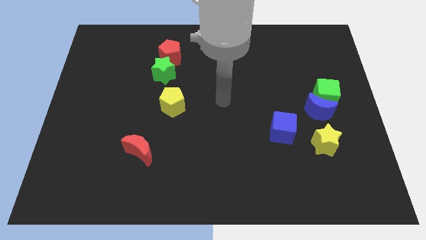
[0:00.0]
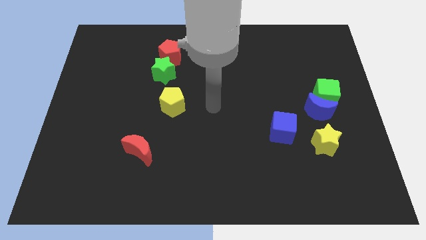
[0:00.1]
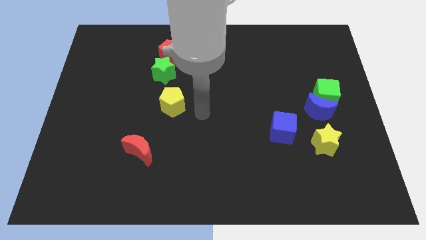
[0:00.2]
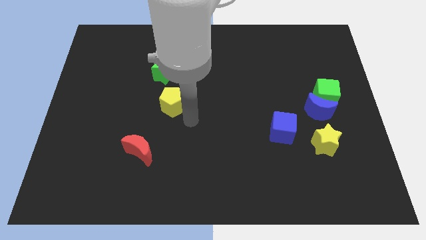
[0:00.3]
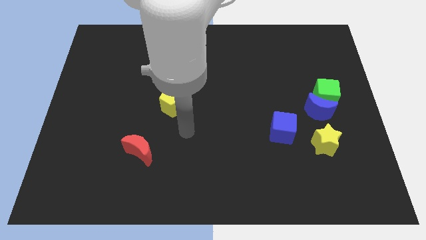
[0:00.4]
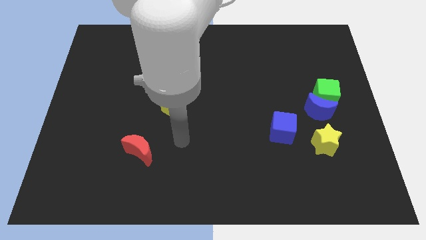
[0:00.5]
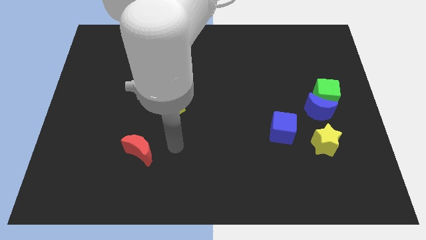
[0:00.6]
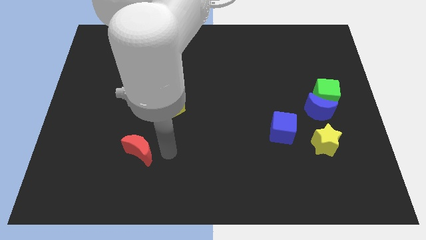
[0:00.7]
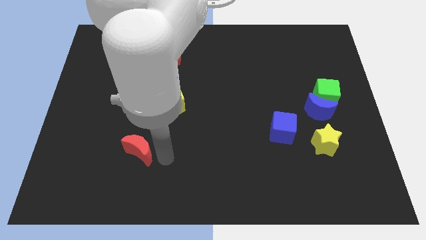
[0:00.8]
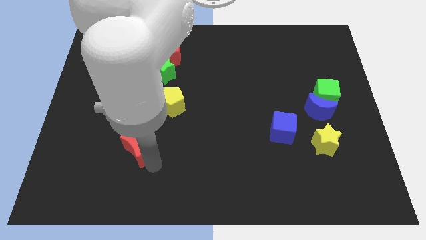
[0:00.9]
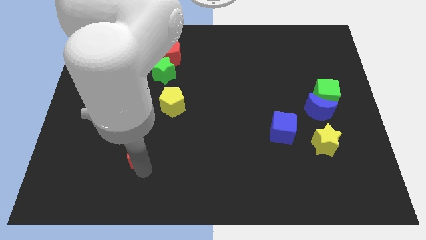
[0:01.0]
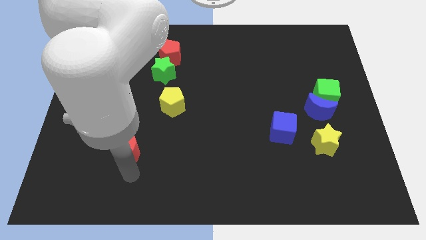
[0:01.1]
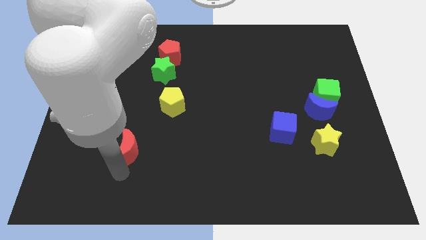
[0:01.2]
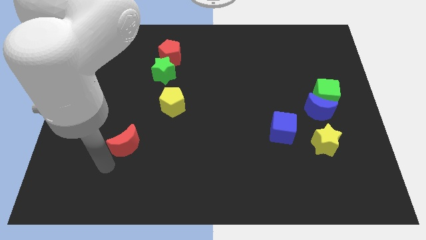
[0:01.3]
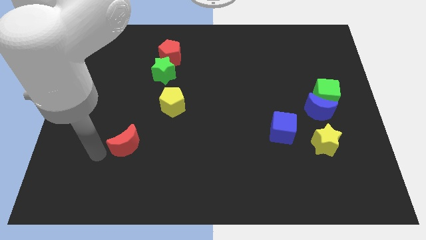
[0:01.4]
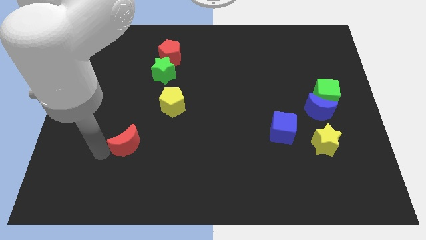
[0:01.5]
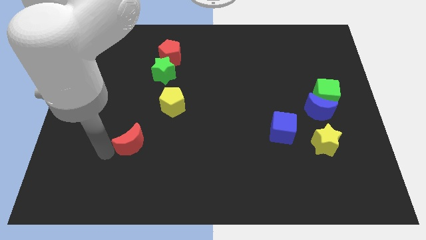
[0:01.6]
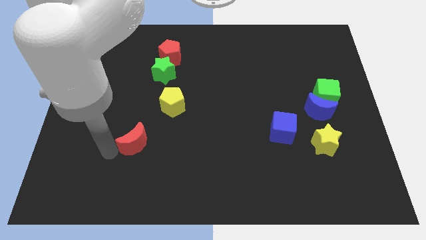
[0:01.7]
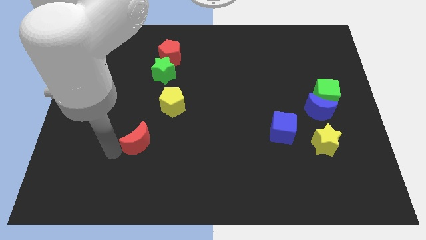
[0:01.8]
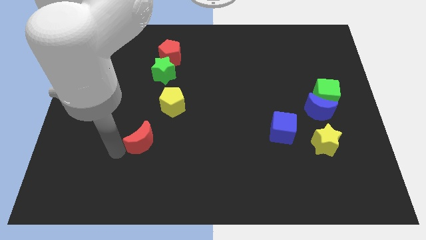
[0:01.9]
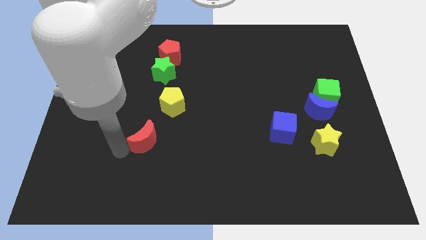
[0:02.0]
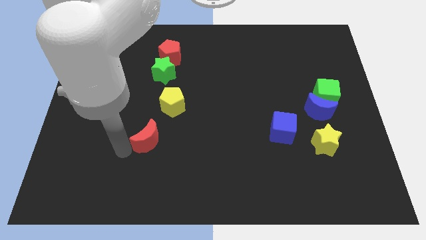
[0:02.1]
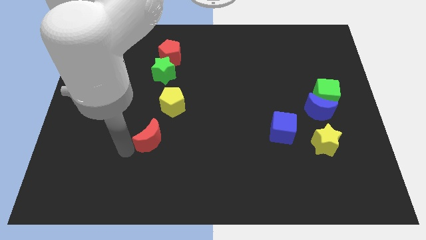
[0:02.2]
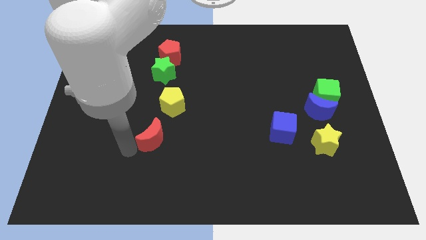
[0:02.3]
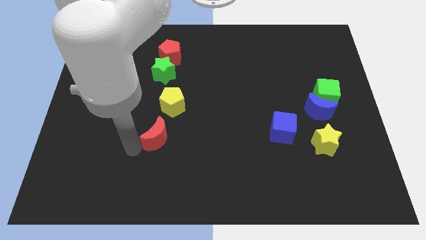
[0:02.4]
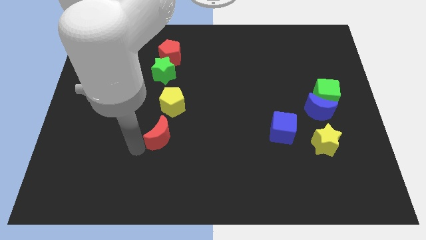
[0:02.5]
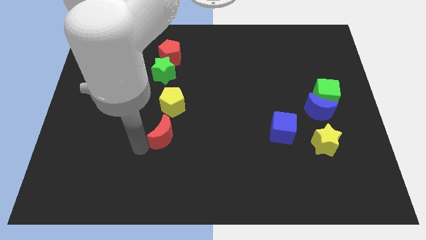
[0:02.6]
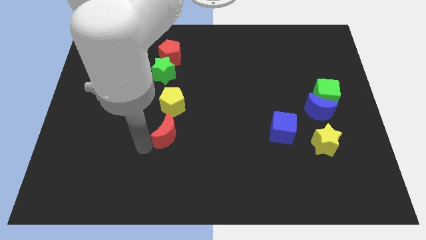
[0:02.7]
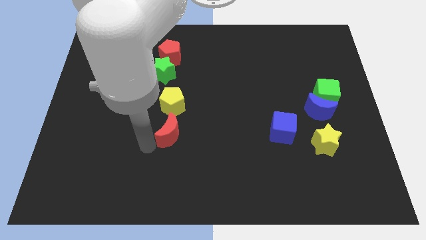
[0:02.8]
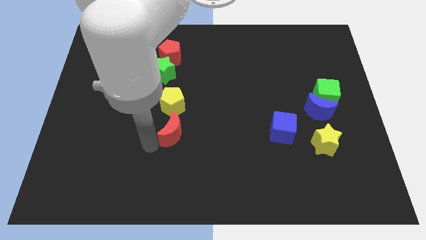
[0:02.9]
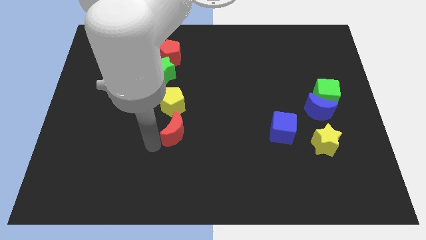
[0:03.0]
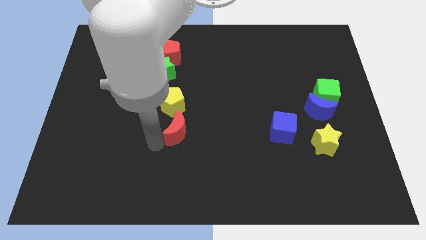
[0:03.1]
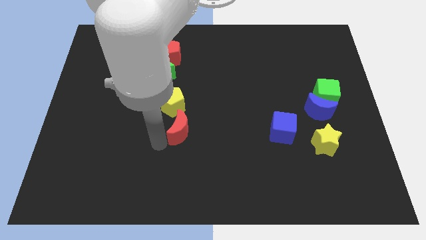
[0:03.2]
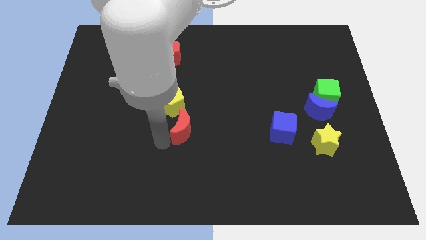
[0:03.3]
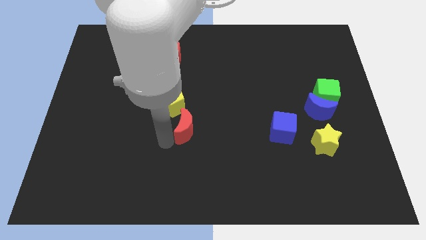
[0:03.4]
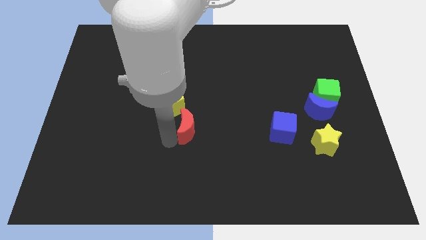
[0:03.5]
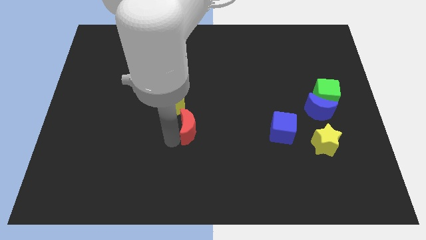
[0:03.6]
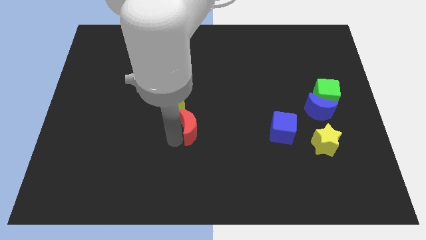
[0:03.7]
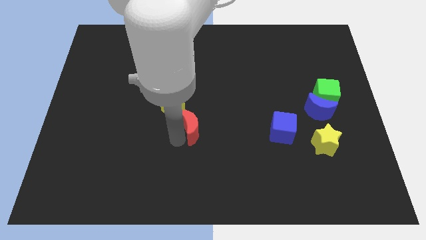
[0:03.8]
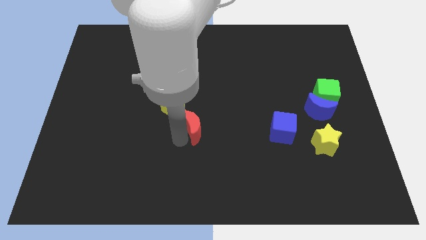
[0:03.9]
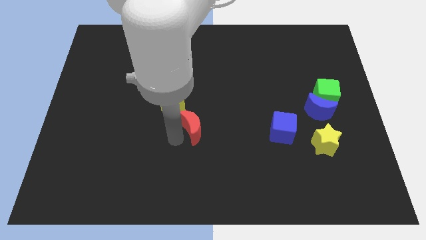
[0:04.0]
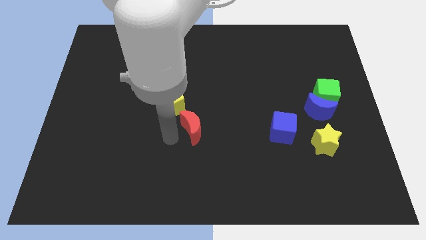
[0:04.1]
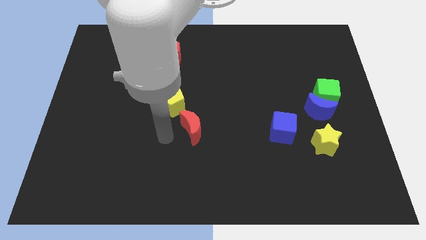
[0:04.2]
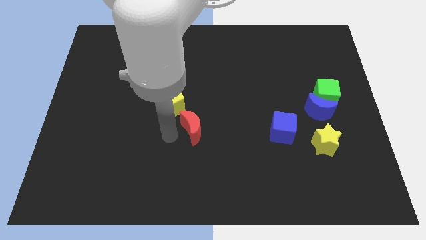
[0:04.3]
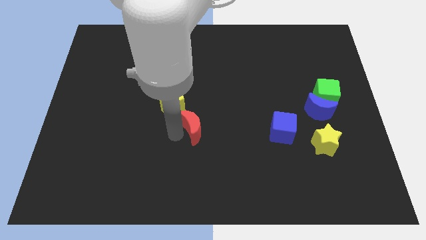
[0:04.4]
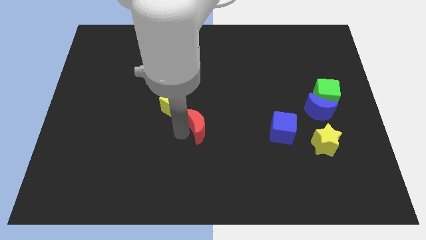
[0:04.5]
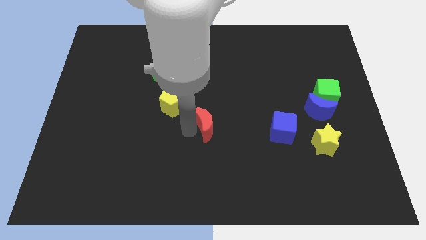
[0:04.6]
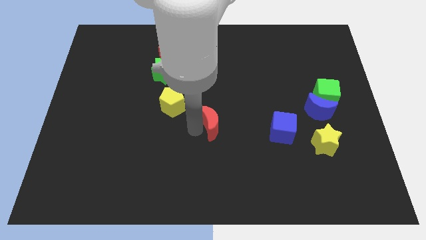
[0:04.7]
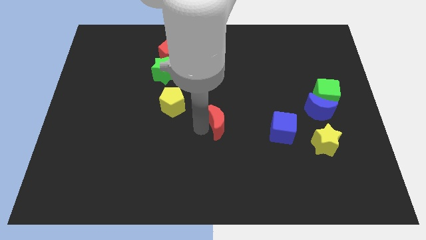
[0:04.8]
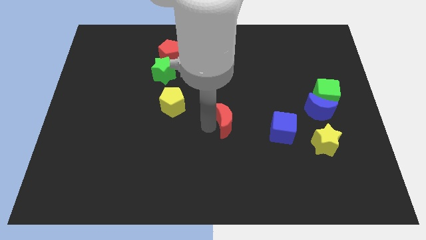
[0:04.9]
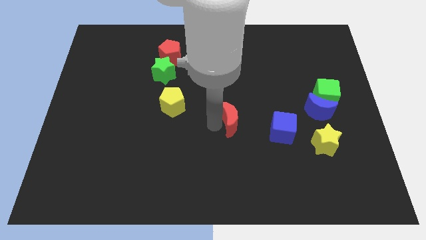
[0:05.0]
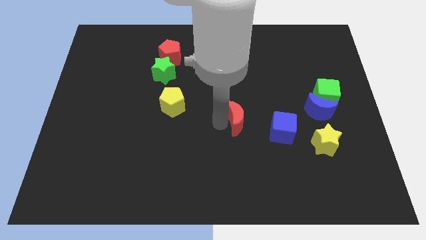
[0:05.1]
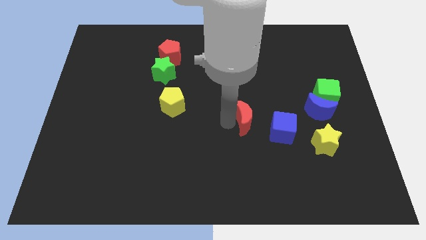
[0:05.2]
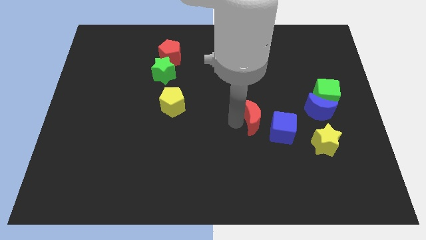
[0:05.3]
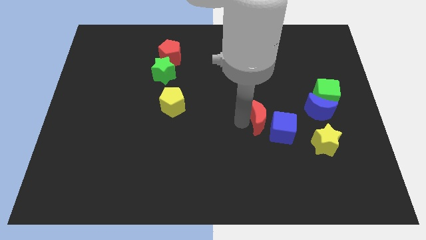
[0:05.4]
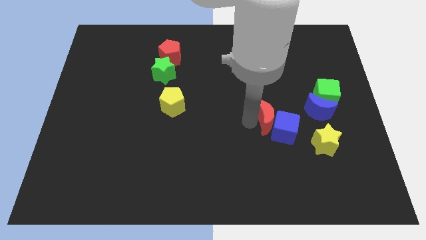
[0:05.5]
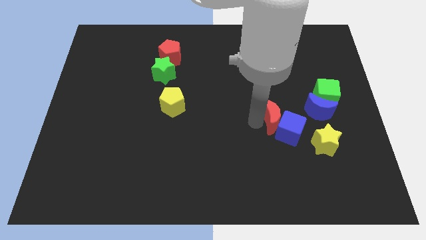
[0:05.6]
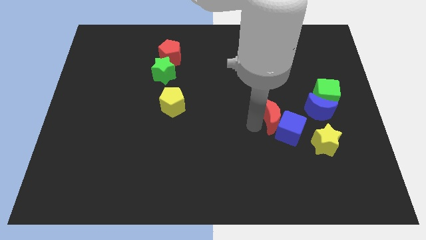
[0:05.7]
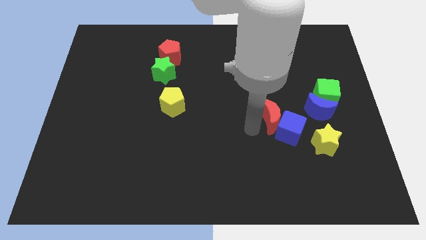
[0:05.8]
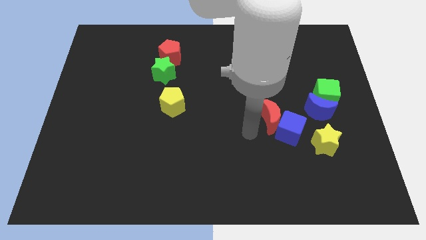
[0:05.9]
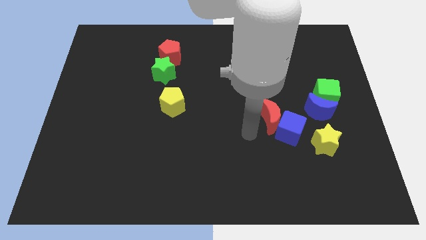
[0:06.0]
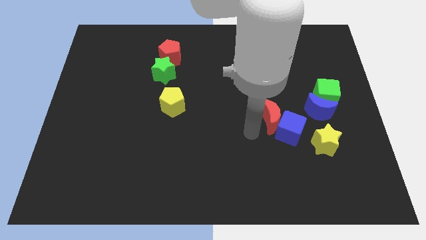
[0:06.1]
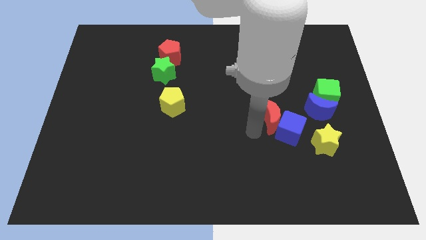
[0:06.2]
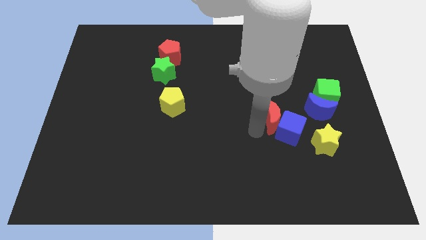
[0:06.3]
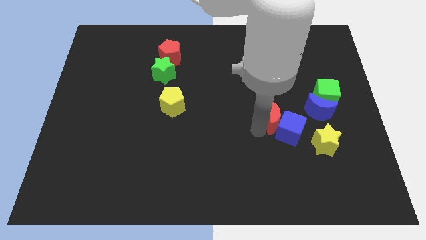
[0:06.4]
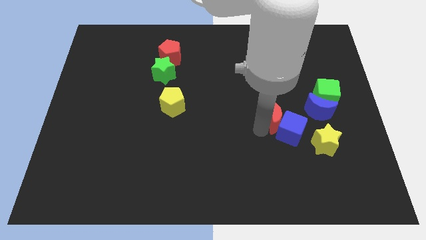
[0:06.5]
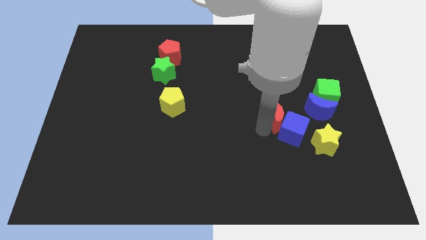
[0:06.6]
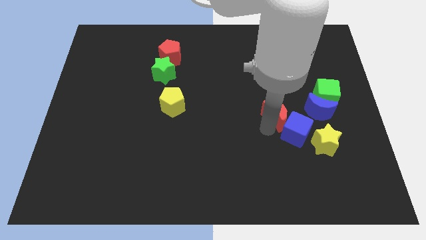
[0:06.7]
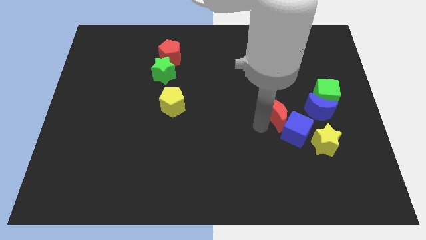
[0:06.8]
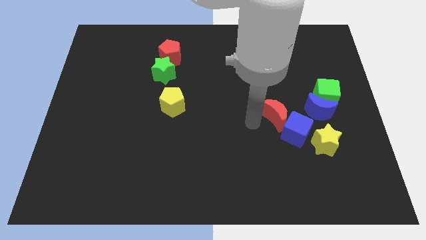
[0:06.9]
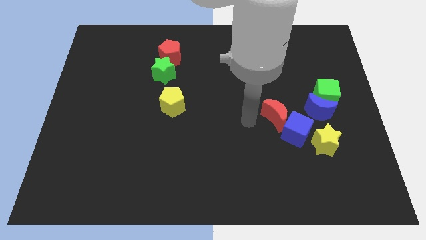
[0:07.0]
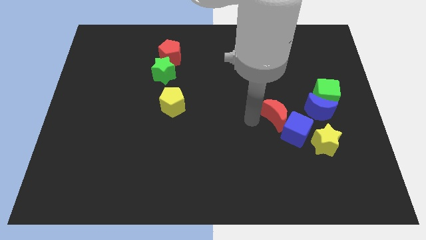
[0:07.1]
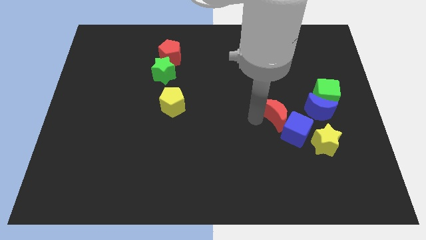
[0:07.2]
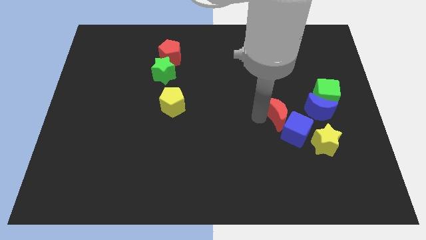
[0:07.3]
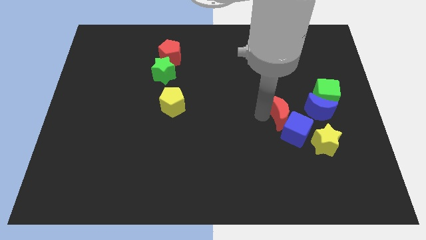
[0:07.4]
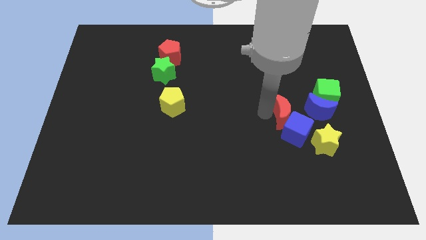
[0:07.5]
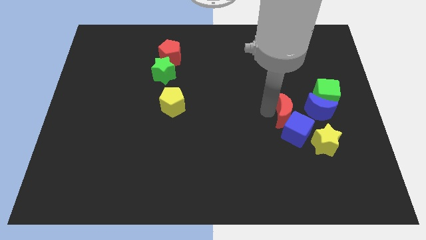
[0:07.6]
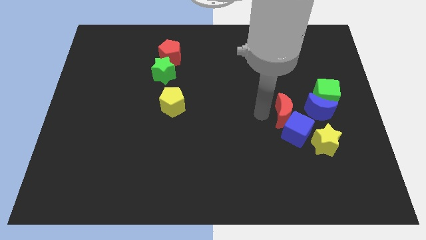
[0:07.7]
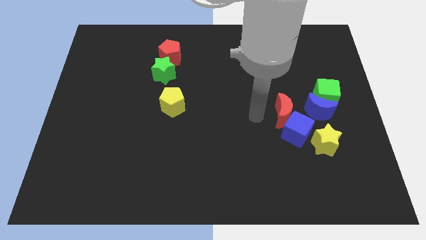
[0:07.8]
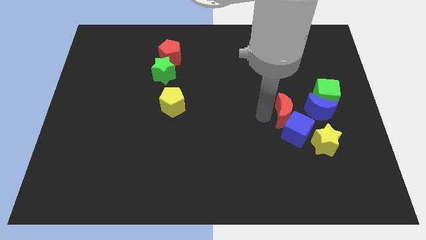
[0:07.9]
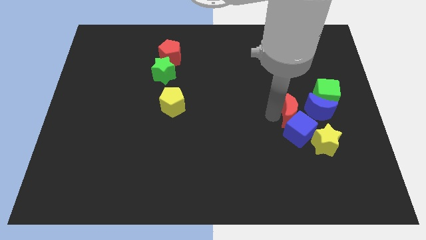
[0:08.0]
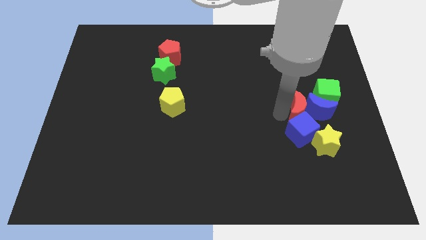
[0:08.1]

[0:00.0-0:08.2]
put the red moon to the blue moon
